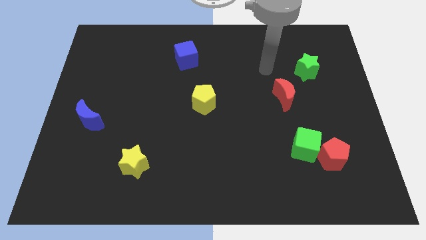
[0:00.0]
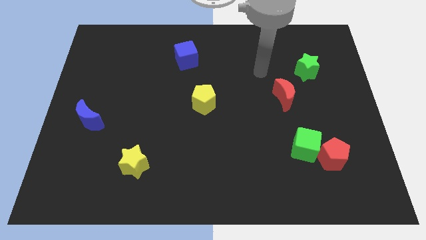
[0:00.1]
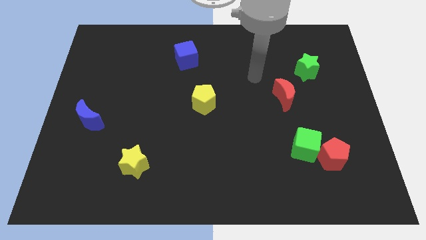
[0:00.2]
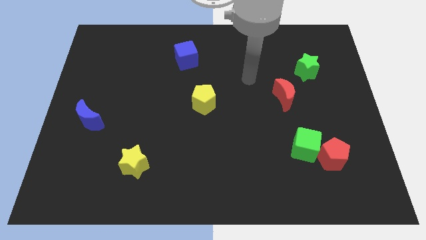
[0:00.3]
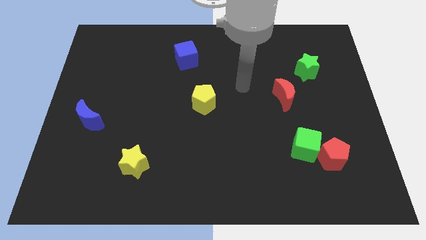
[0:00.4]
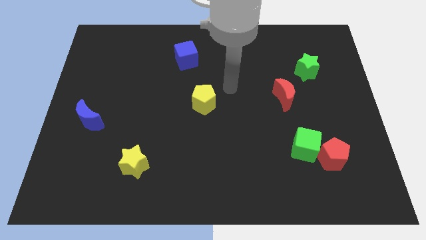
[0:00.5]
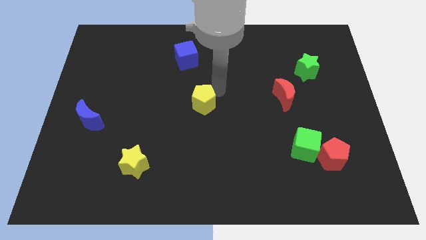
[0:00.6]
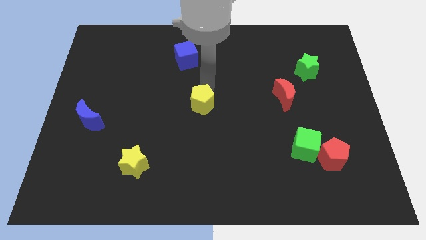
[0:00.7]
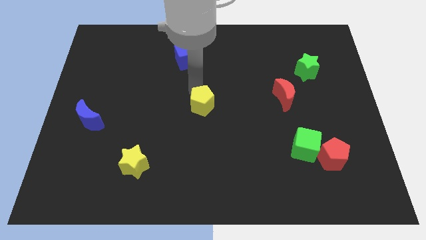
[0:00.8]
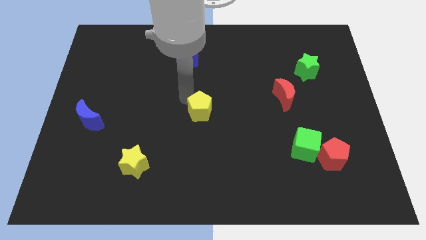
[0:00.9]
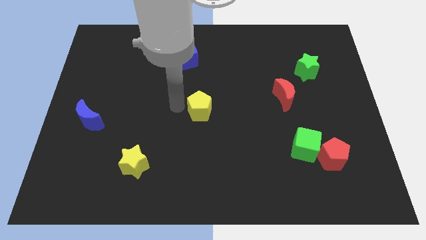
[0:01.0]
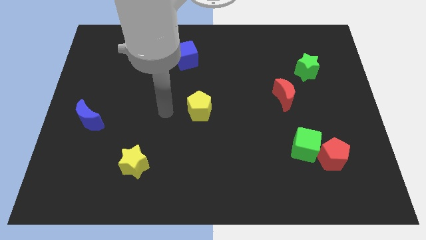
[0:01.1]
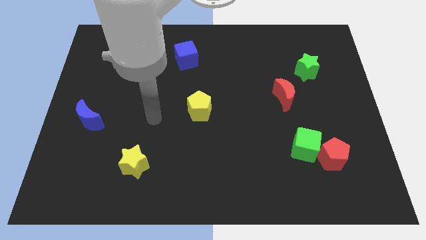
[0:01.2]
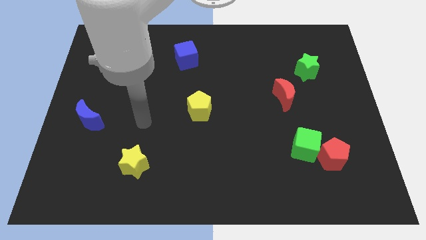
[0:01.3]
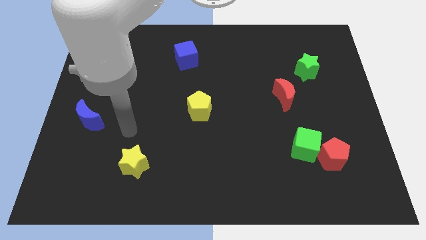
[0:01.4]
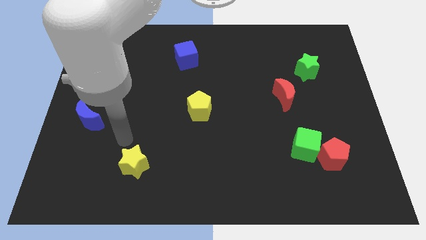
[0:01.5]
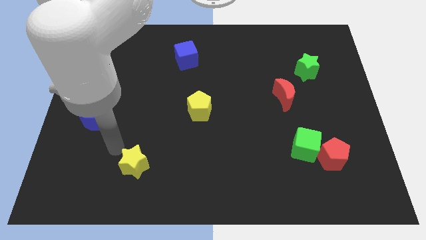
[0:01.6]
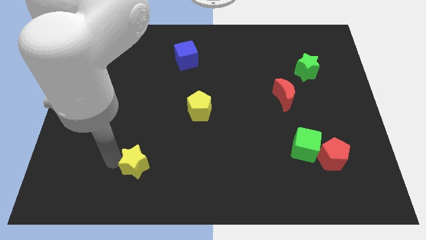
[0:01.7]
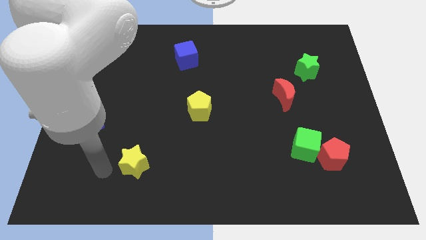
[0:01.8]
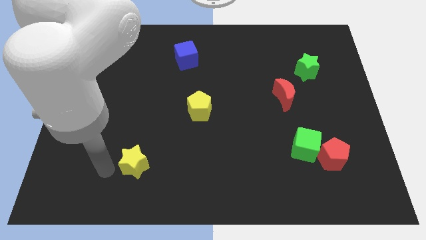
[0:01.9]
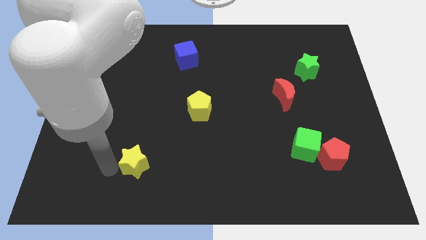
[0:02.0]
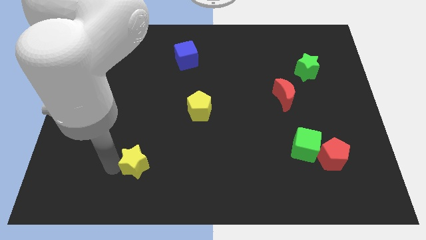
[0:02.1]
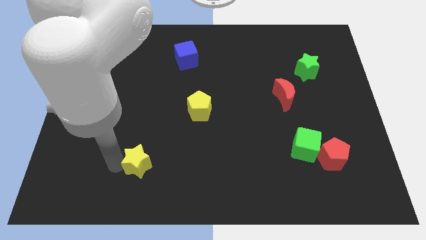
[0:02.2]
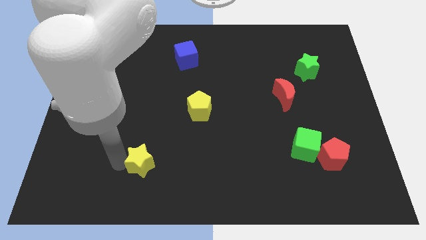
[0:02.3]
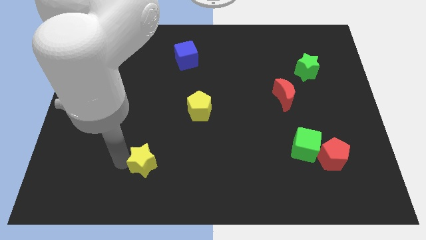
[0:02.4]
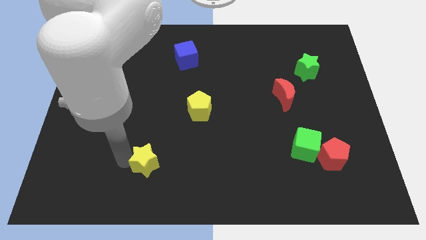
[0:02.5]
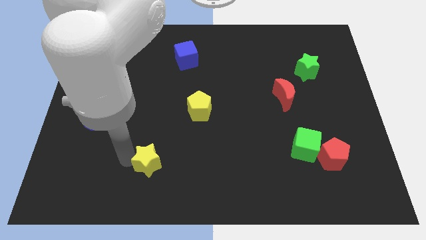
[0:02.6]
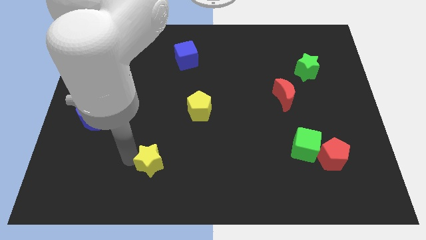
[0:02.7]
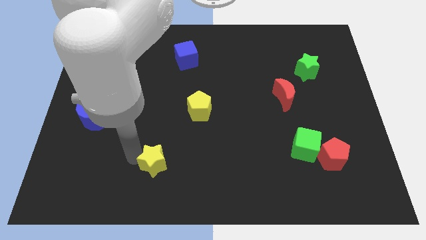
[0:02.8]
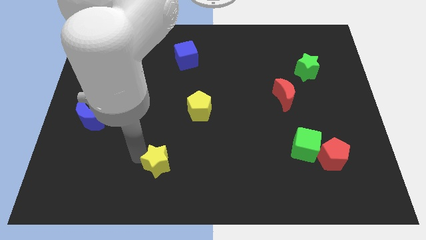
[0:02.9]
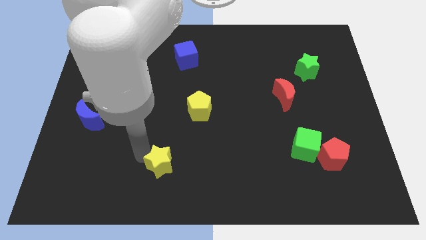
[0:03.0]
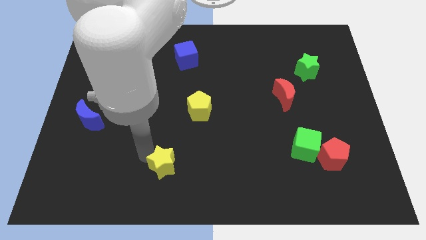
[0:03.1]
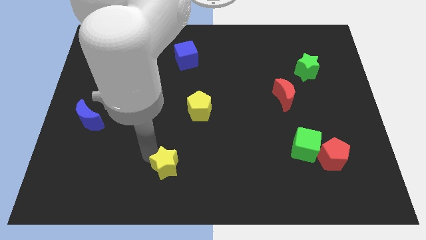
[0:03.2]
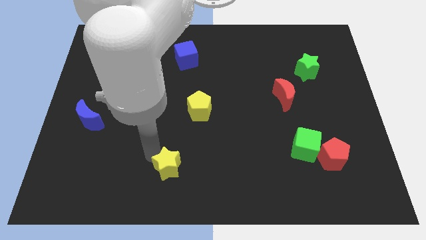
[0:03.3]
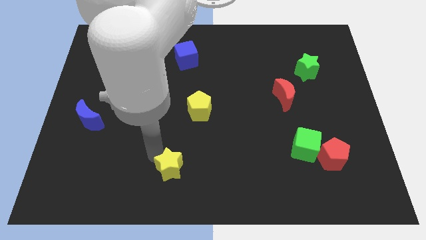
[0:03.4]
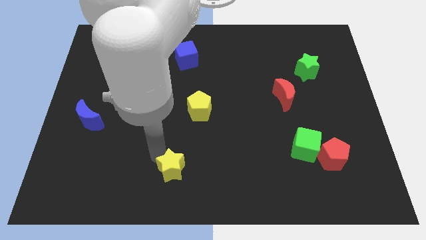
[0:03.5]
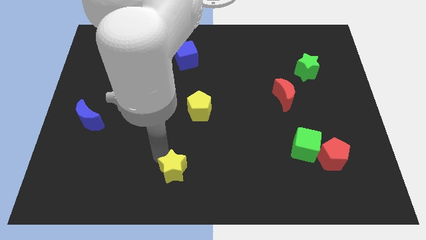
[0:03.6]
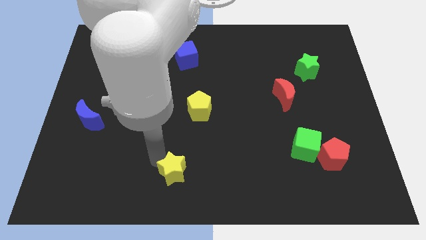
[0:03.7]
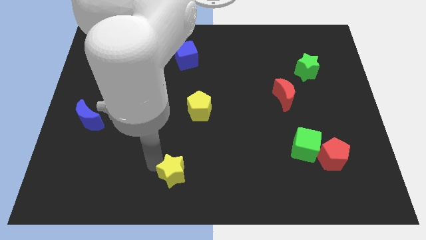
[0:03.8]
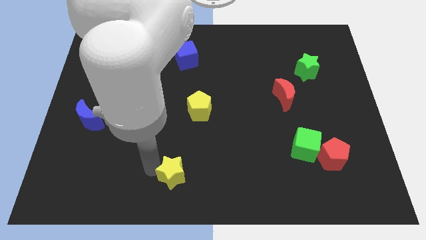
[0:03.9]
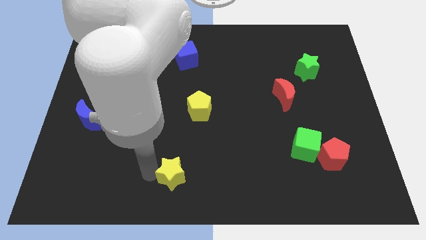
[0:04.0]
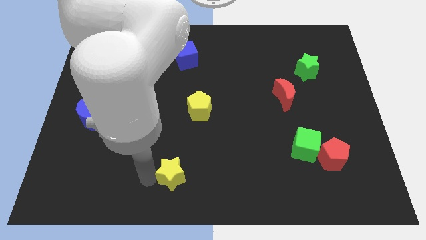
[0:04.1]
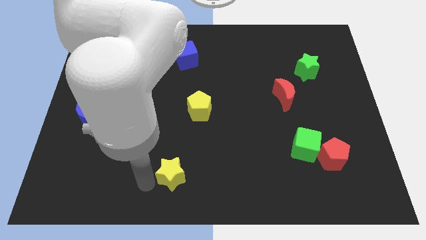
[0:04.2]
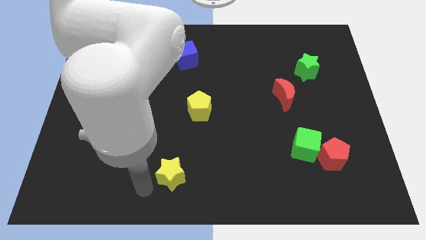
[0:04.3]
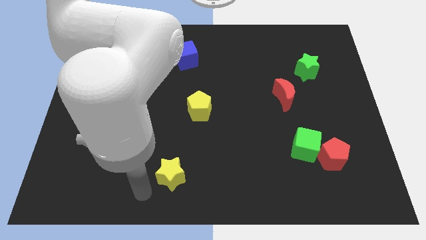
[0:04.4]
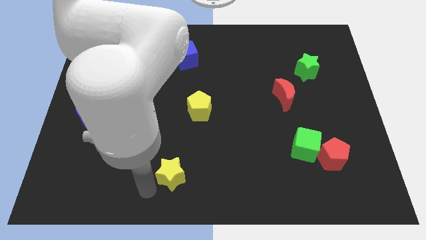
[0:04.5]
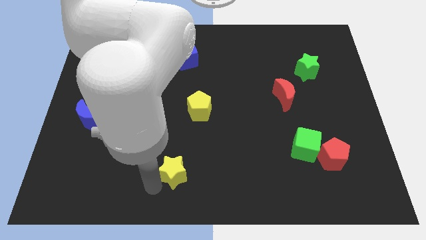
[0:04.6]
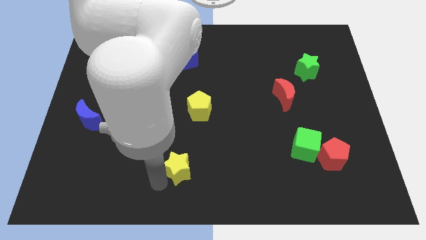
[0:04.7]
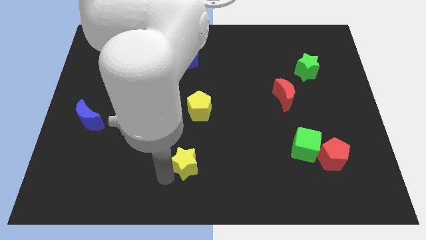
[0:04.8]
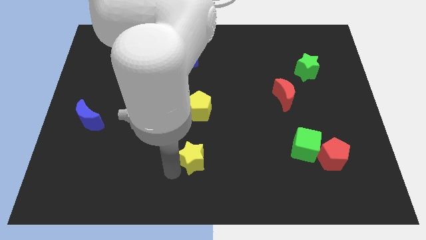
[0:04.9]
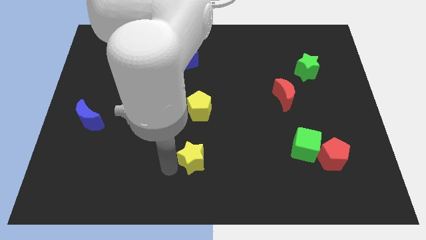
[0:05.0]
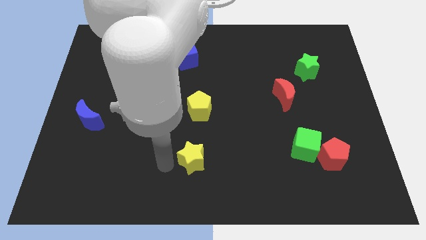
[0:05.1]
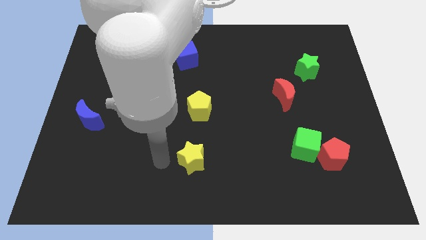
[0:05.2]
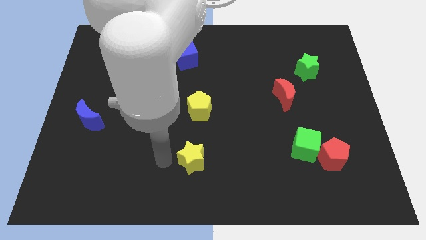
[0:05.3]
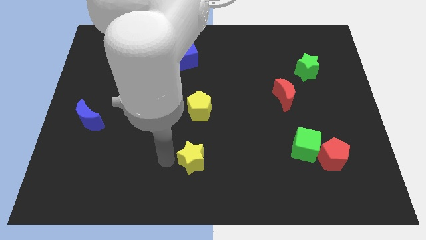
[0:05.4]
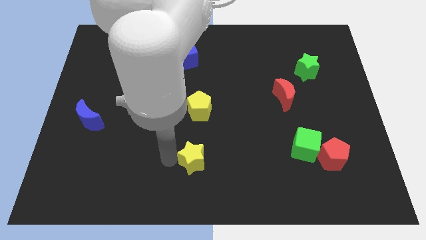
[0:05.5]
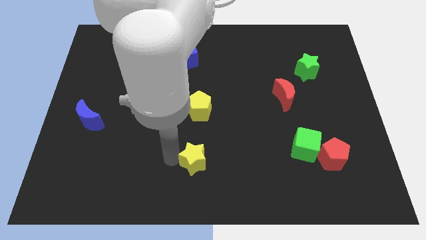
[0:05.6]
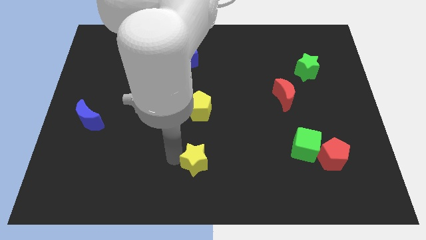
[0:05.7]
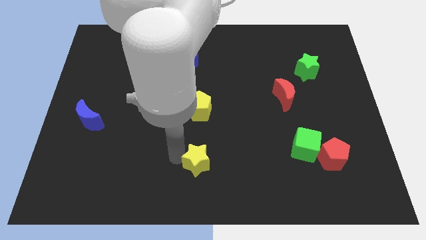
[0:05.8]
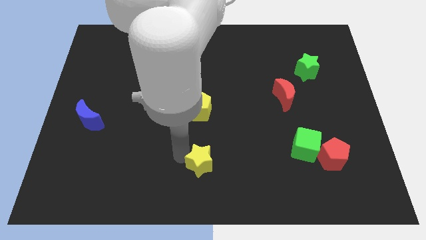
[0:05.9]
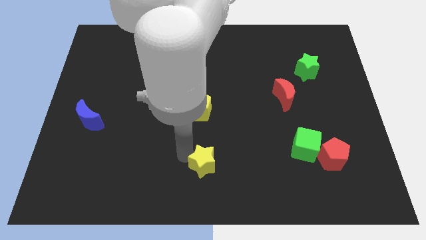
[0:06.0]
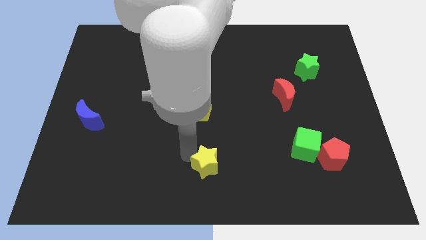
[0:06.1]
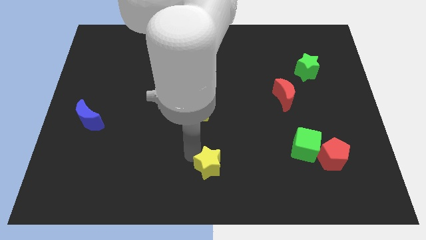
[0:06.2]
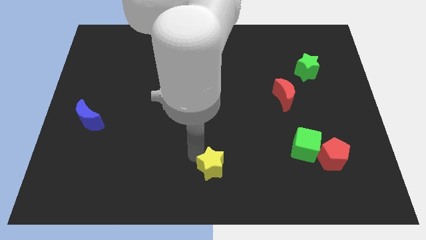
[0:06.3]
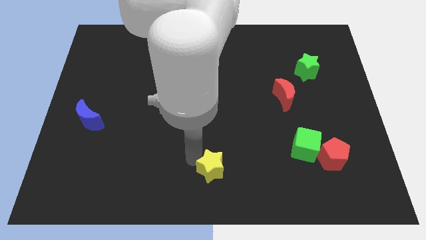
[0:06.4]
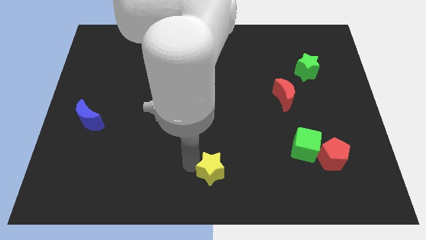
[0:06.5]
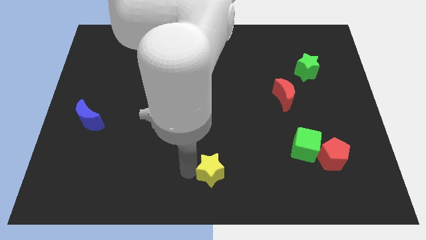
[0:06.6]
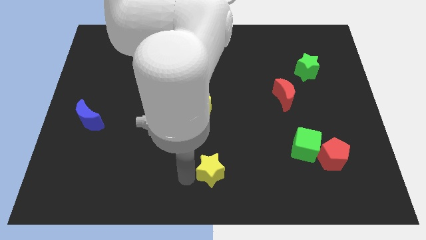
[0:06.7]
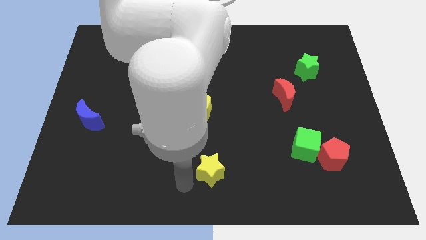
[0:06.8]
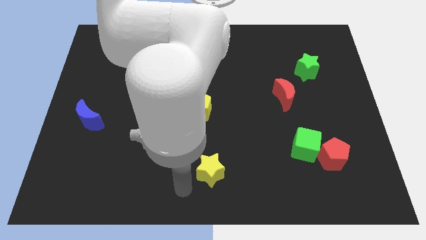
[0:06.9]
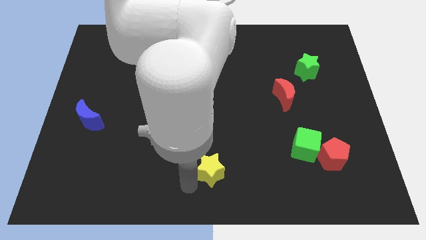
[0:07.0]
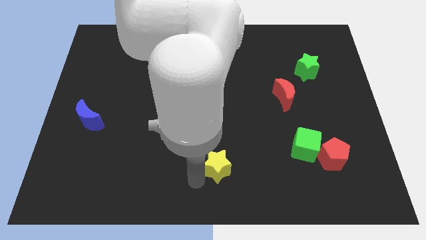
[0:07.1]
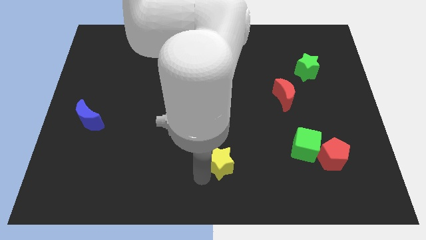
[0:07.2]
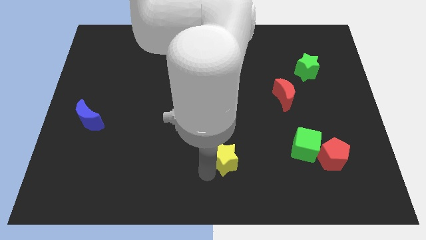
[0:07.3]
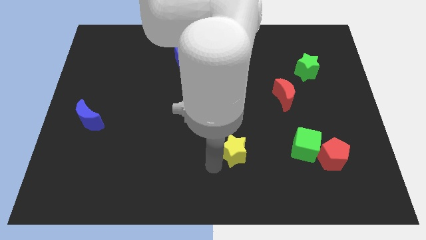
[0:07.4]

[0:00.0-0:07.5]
move the yellow star right

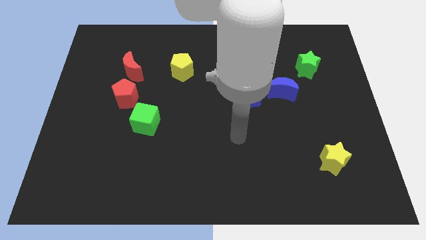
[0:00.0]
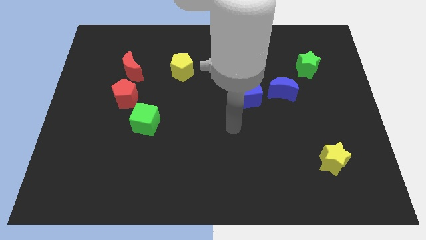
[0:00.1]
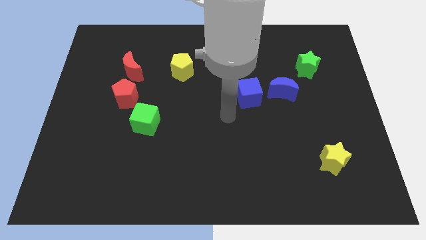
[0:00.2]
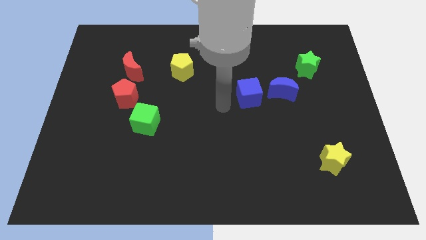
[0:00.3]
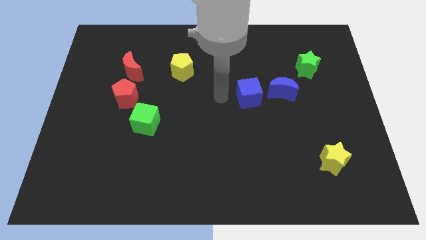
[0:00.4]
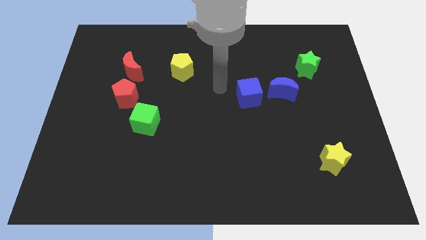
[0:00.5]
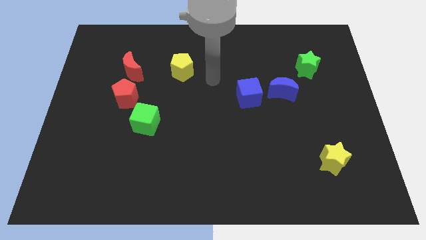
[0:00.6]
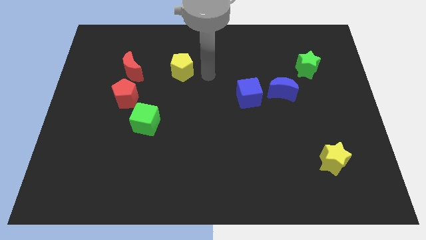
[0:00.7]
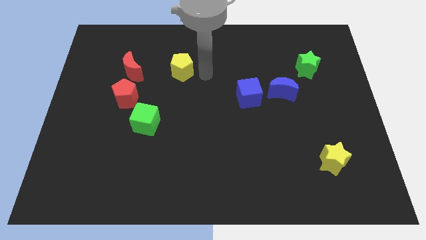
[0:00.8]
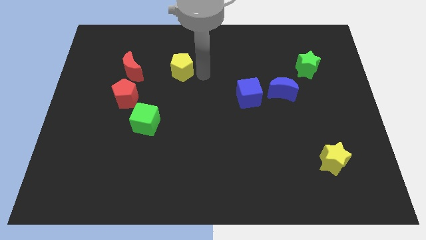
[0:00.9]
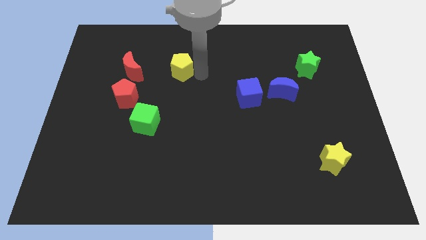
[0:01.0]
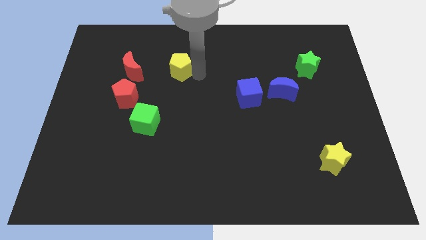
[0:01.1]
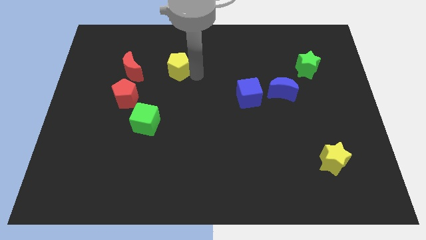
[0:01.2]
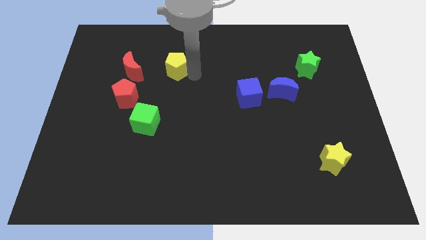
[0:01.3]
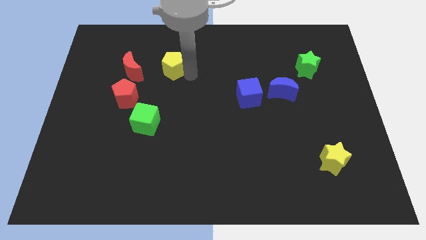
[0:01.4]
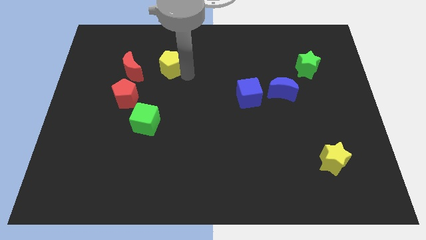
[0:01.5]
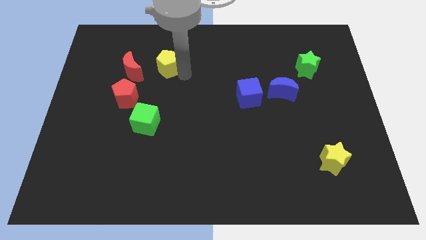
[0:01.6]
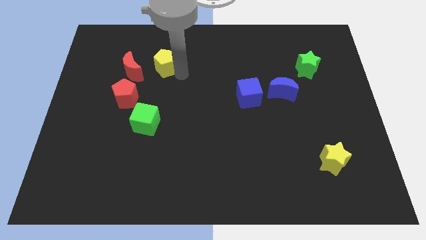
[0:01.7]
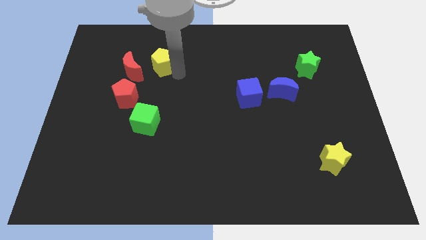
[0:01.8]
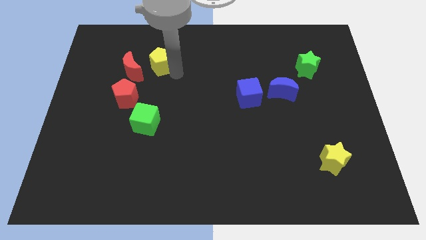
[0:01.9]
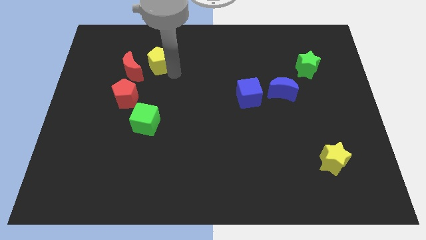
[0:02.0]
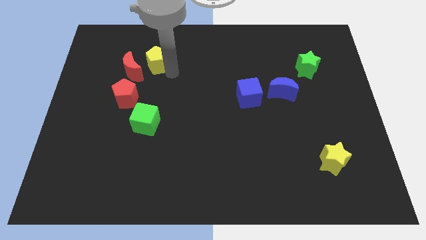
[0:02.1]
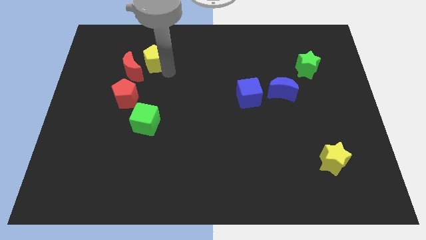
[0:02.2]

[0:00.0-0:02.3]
slightly move the yellow pentagon to the left
